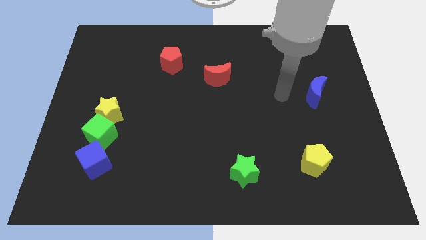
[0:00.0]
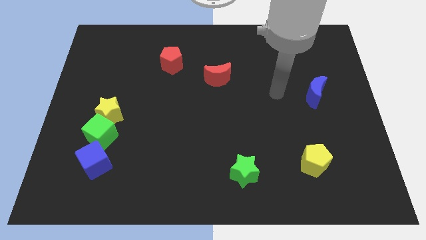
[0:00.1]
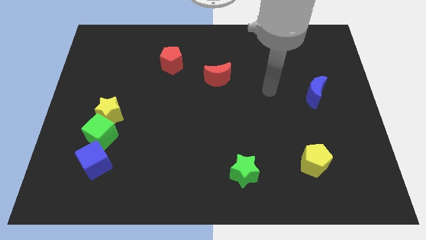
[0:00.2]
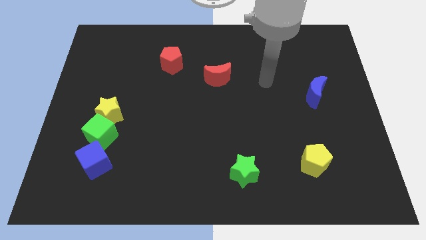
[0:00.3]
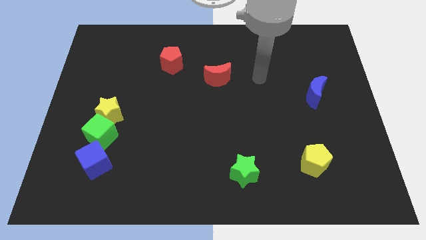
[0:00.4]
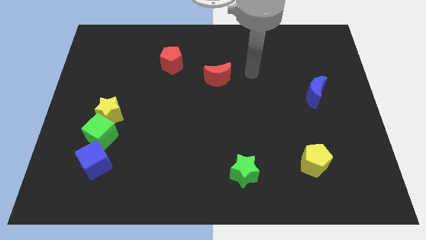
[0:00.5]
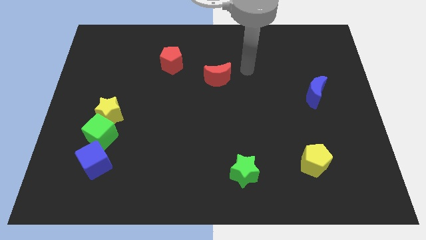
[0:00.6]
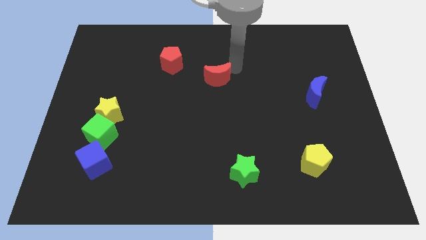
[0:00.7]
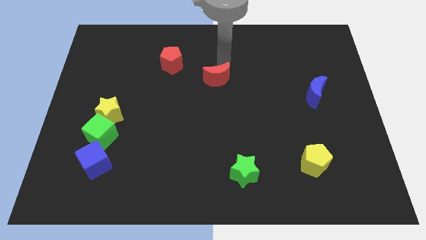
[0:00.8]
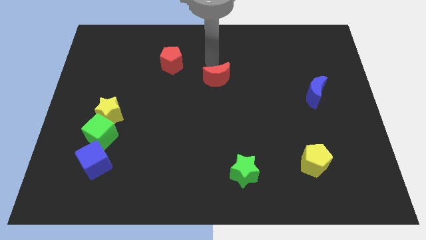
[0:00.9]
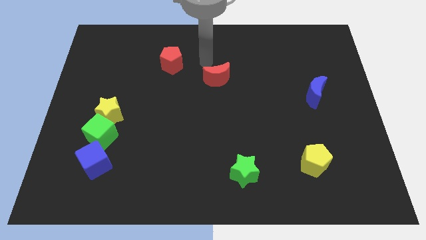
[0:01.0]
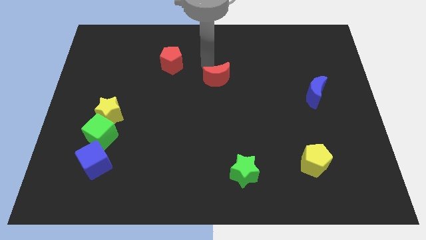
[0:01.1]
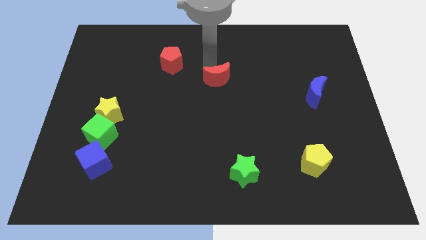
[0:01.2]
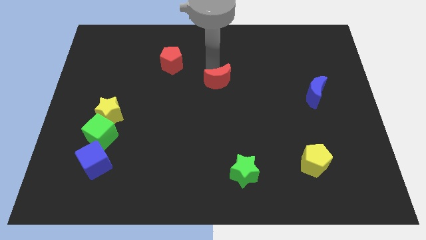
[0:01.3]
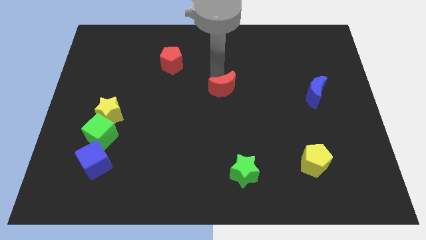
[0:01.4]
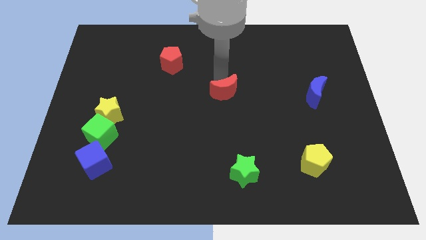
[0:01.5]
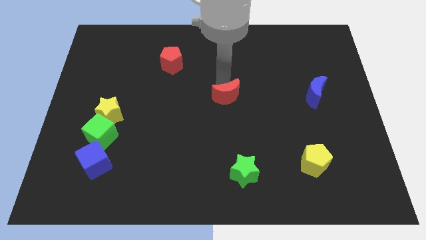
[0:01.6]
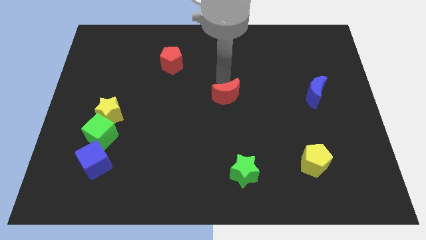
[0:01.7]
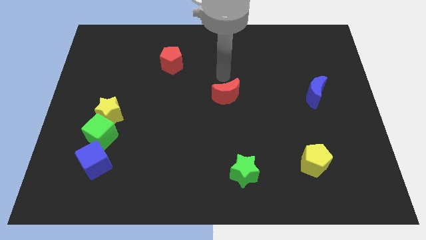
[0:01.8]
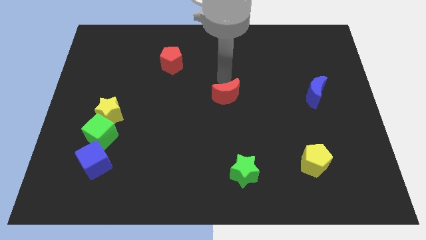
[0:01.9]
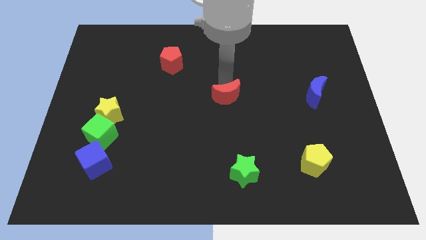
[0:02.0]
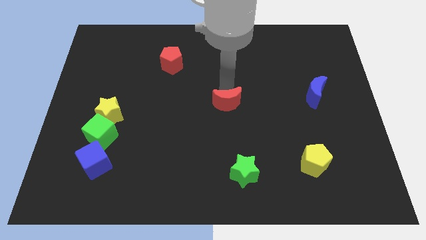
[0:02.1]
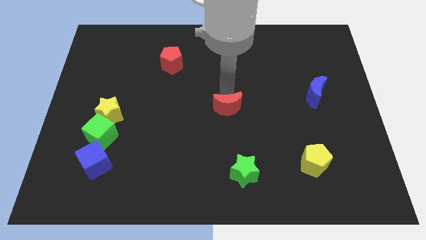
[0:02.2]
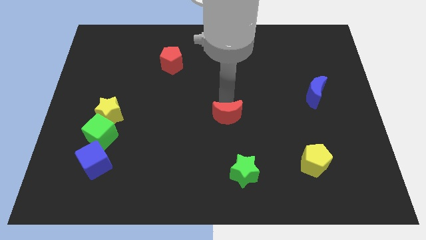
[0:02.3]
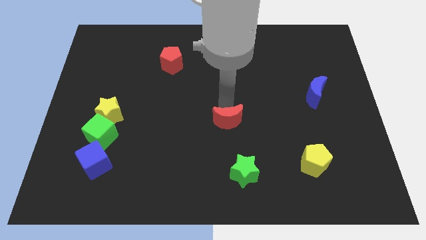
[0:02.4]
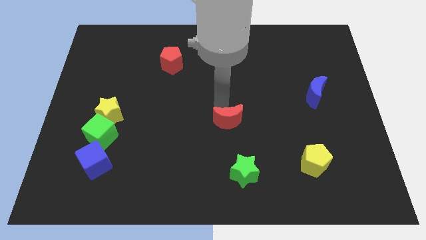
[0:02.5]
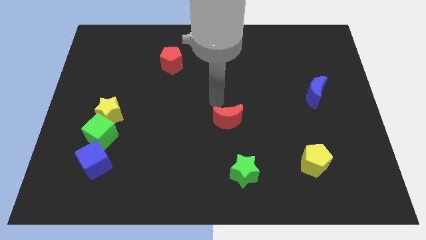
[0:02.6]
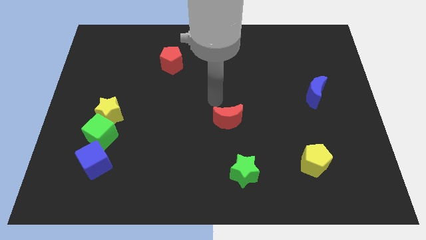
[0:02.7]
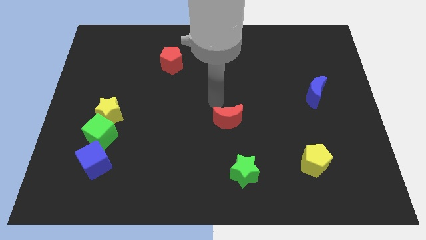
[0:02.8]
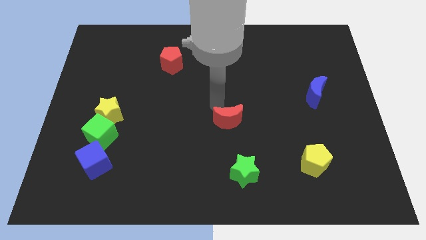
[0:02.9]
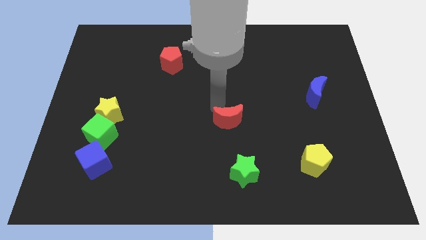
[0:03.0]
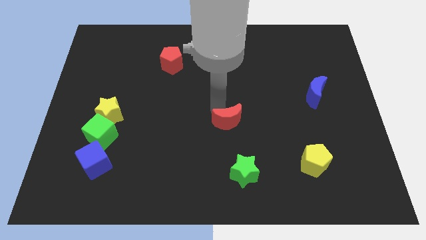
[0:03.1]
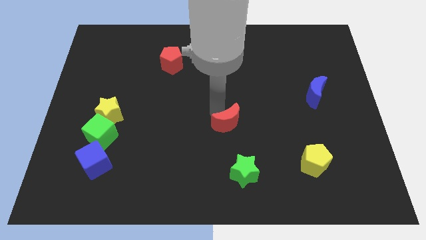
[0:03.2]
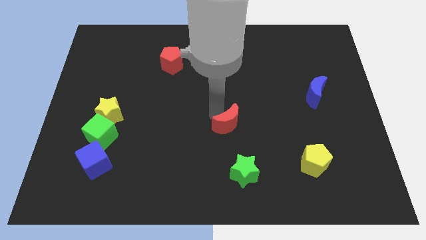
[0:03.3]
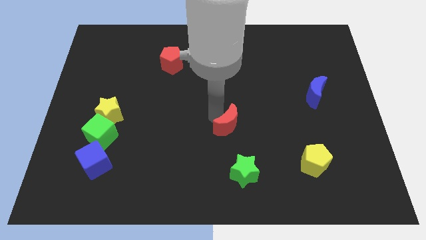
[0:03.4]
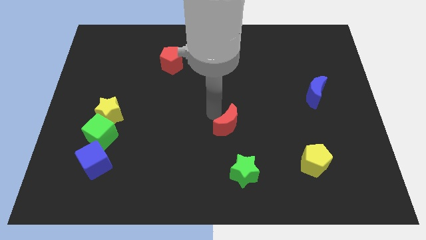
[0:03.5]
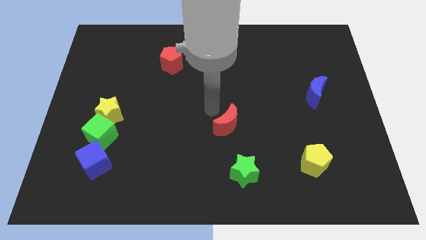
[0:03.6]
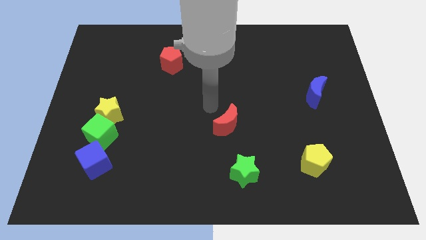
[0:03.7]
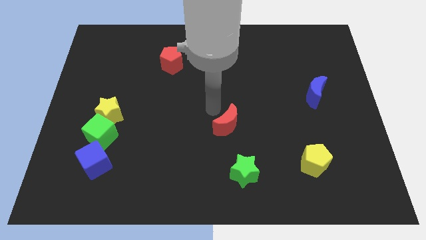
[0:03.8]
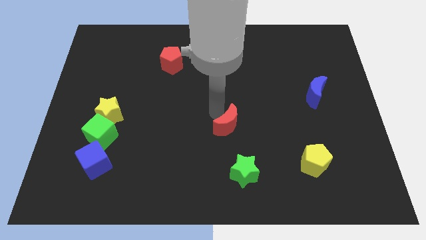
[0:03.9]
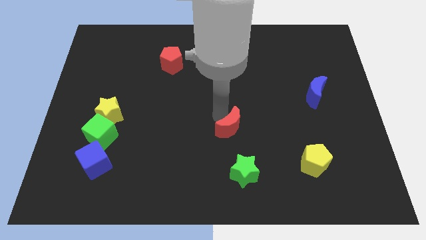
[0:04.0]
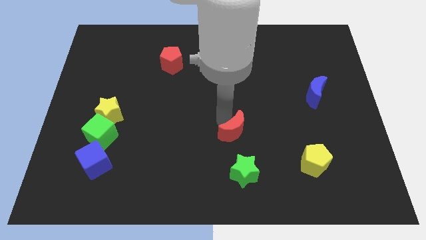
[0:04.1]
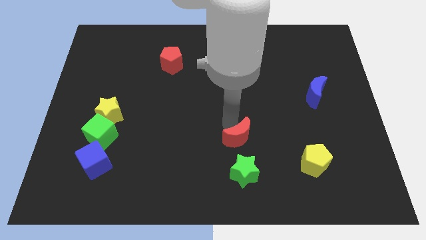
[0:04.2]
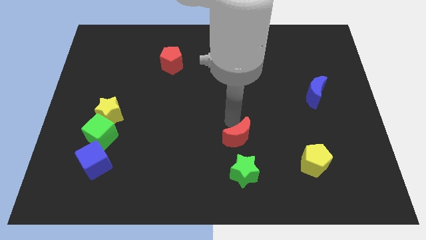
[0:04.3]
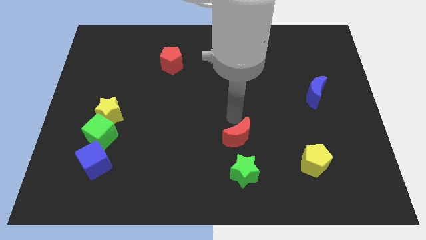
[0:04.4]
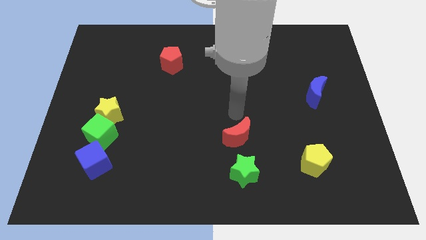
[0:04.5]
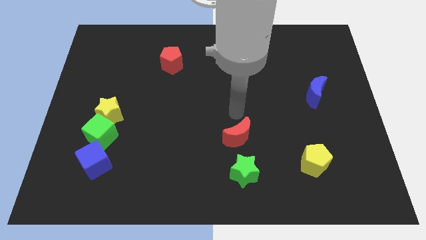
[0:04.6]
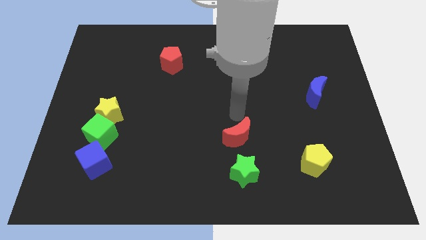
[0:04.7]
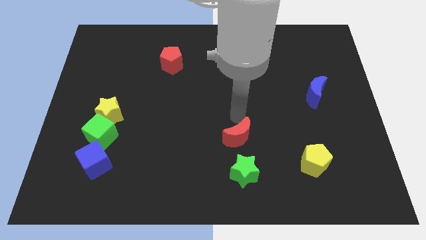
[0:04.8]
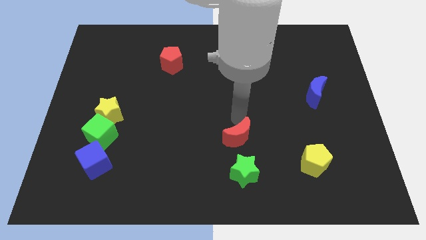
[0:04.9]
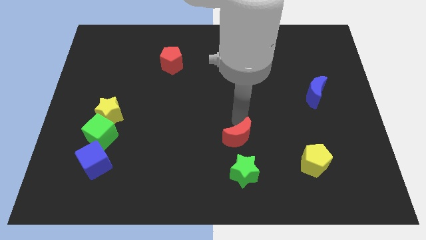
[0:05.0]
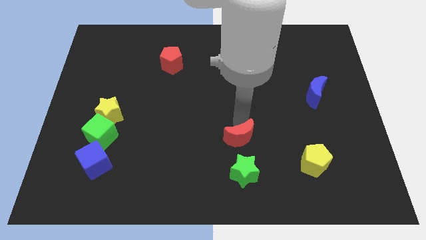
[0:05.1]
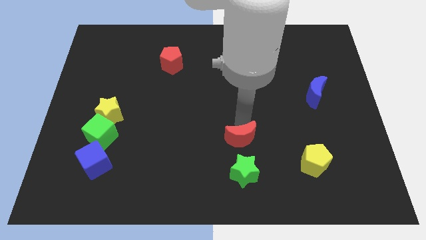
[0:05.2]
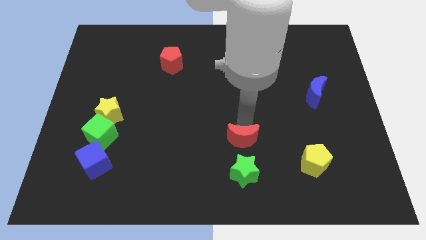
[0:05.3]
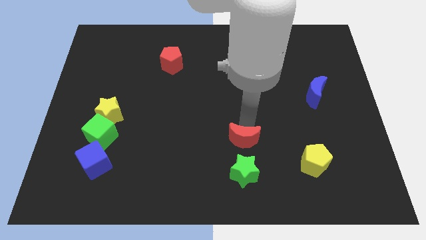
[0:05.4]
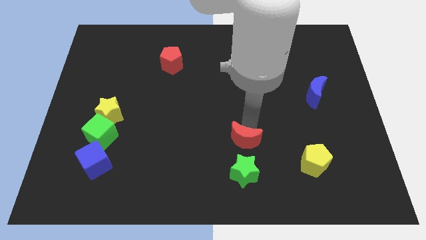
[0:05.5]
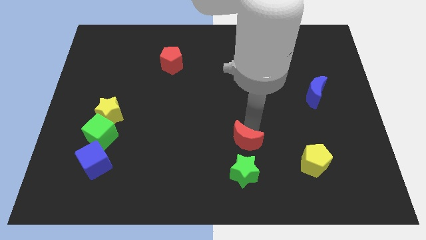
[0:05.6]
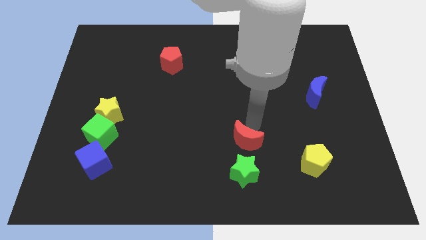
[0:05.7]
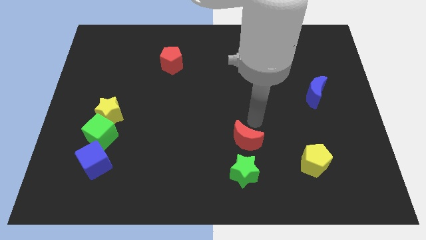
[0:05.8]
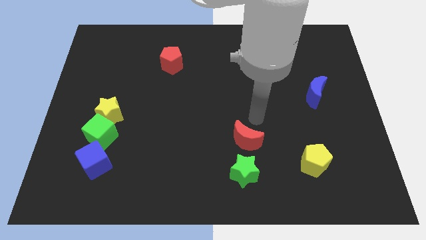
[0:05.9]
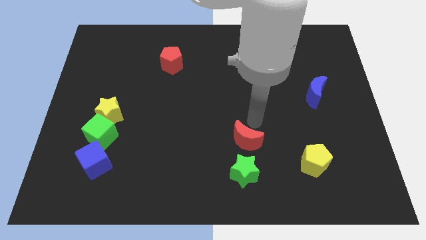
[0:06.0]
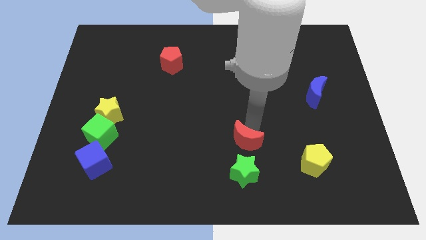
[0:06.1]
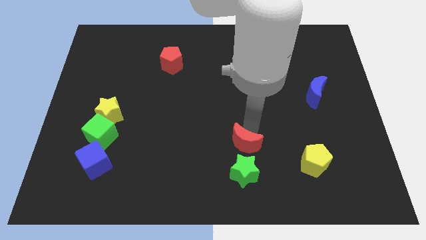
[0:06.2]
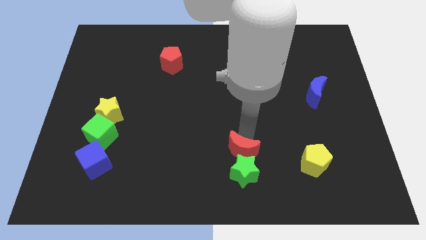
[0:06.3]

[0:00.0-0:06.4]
put the red moon close to the green star
